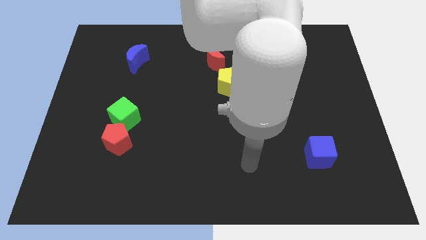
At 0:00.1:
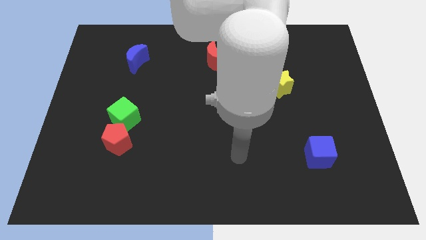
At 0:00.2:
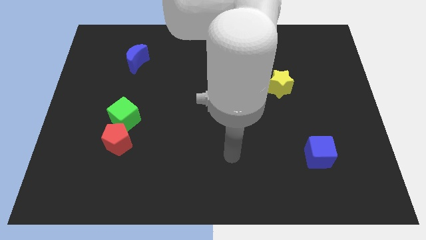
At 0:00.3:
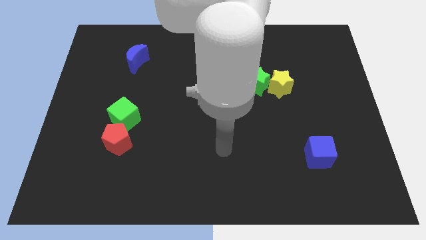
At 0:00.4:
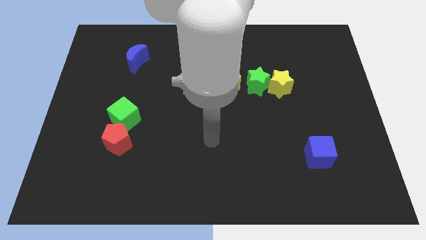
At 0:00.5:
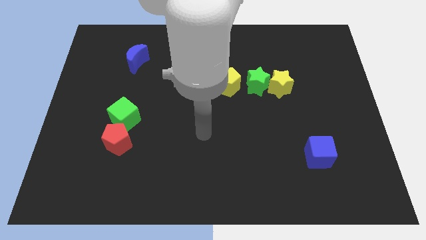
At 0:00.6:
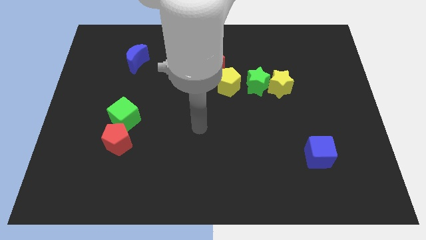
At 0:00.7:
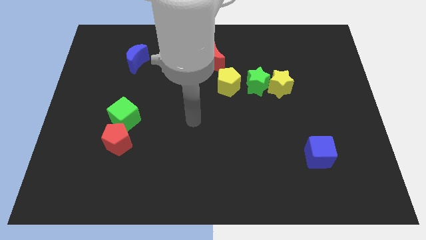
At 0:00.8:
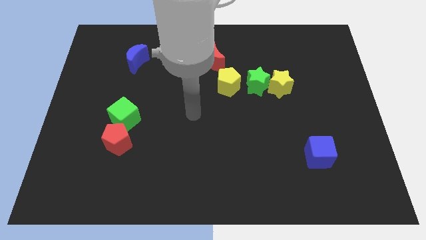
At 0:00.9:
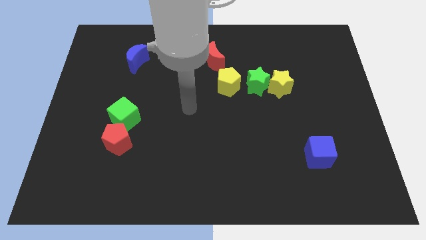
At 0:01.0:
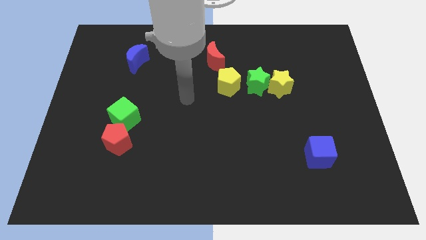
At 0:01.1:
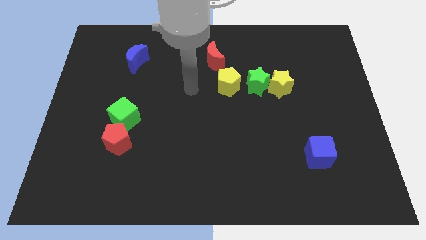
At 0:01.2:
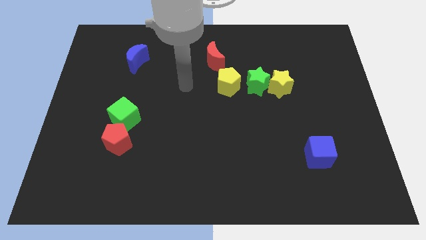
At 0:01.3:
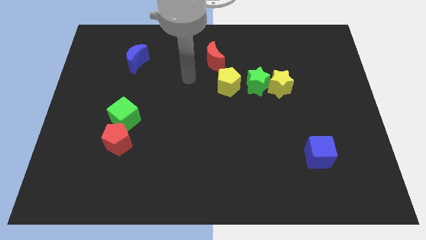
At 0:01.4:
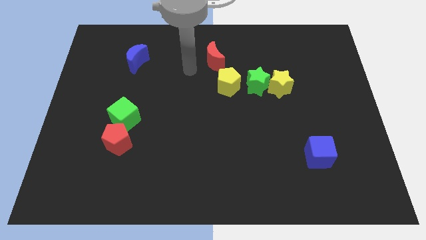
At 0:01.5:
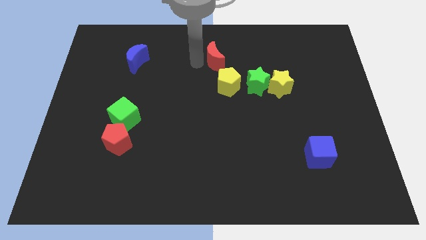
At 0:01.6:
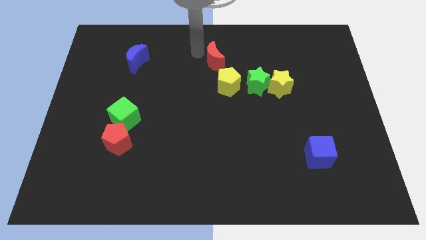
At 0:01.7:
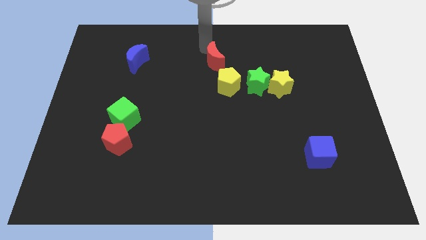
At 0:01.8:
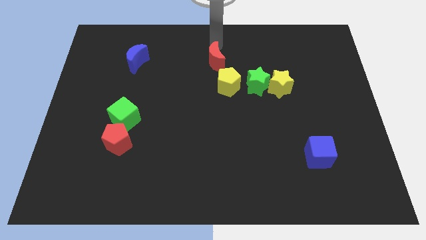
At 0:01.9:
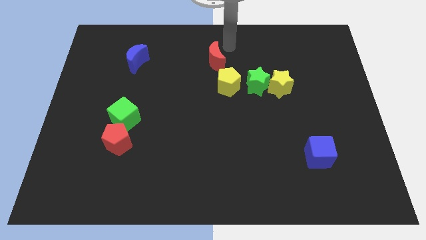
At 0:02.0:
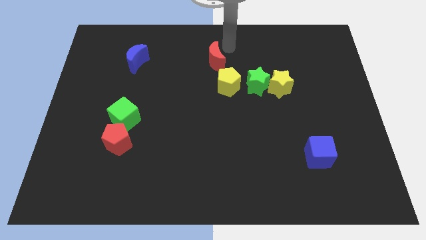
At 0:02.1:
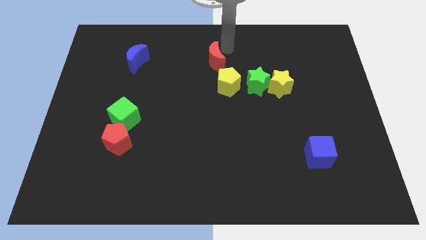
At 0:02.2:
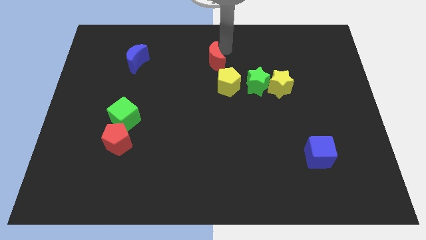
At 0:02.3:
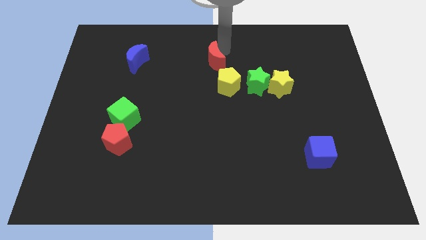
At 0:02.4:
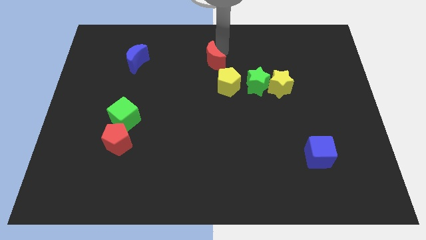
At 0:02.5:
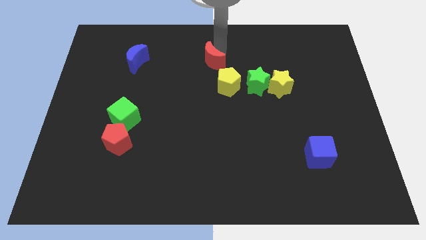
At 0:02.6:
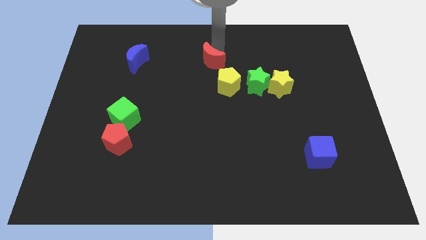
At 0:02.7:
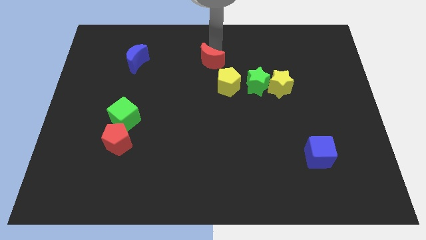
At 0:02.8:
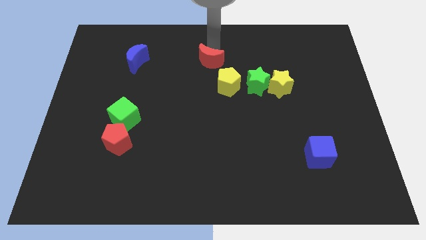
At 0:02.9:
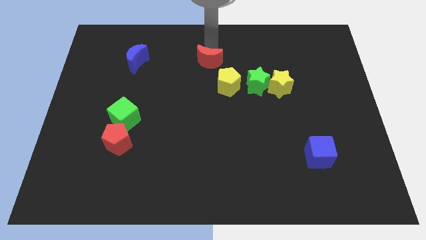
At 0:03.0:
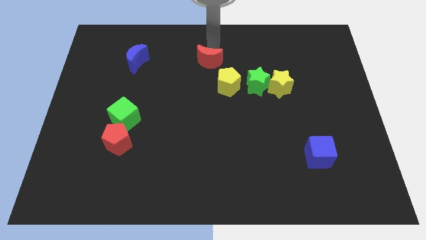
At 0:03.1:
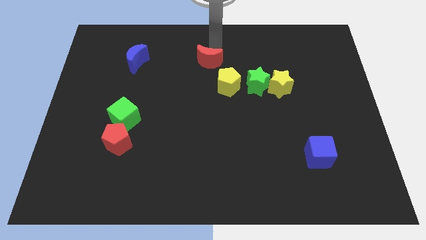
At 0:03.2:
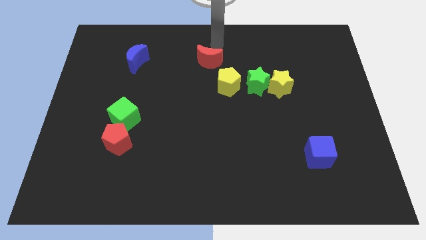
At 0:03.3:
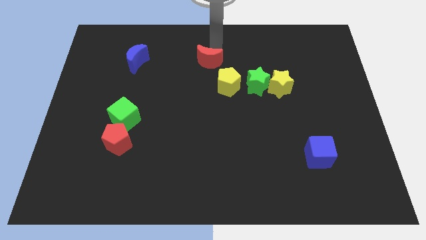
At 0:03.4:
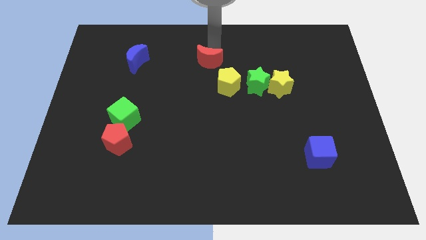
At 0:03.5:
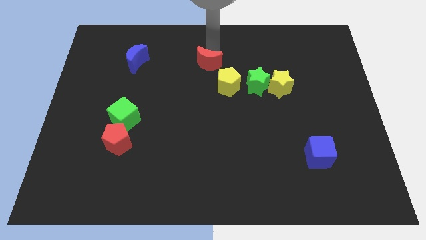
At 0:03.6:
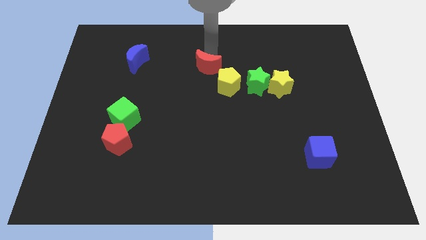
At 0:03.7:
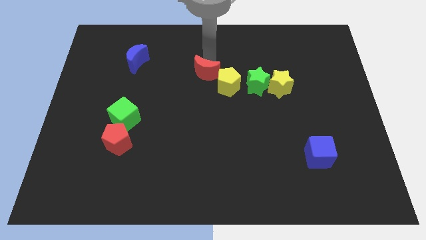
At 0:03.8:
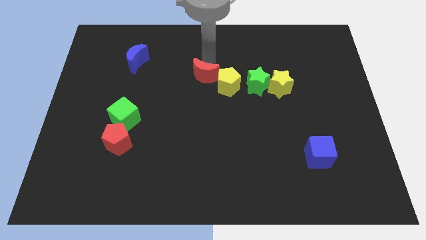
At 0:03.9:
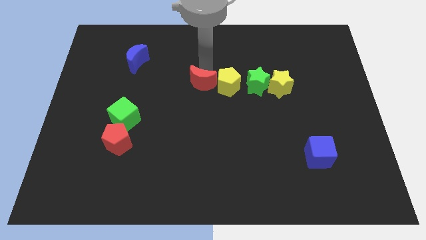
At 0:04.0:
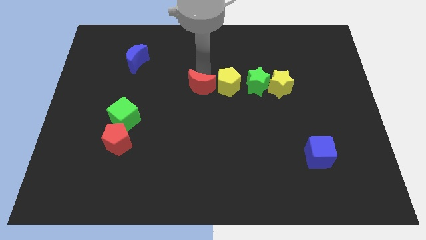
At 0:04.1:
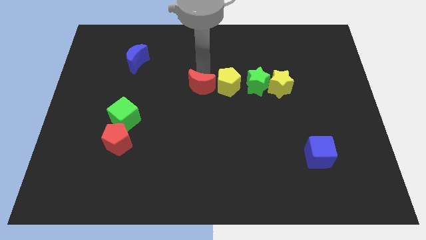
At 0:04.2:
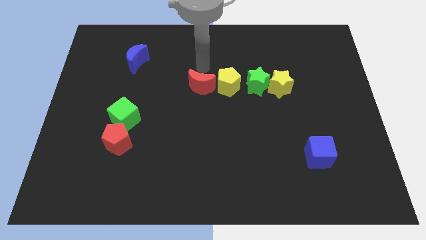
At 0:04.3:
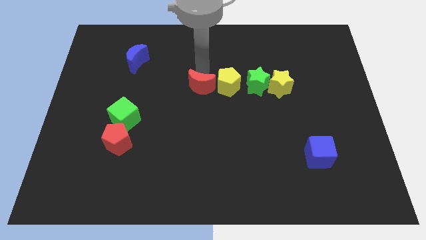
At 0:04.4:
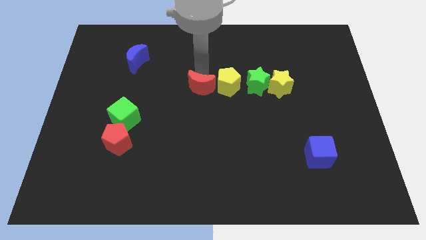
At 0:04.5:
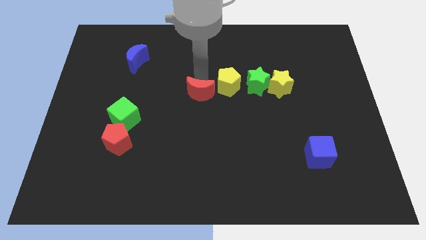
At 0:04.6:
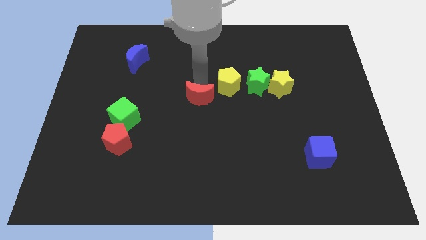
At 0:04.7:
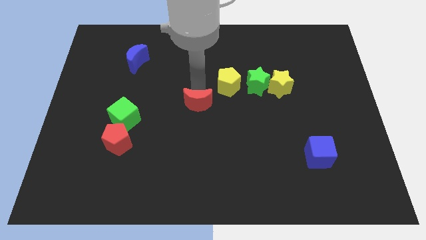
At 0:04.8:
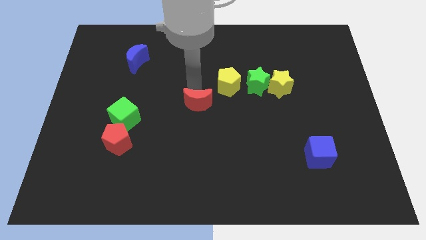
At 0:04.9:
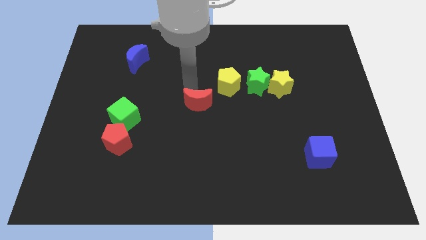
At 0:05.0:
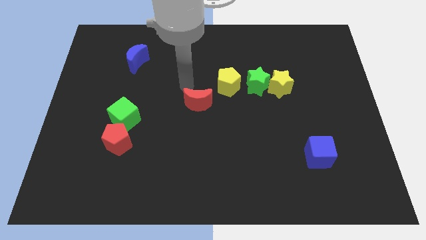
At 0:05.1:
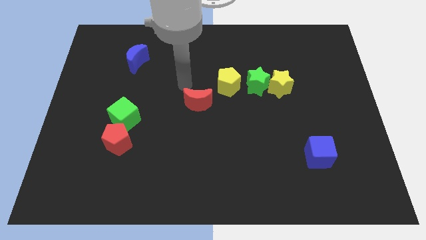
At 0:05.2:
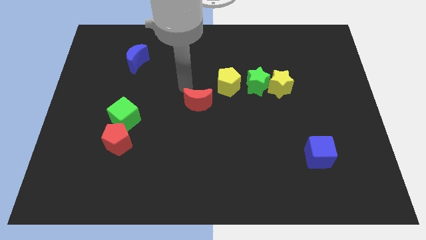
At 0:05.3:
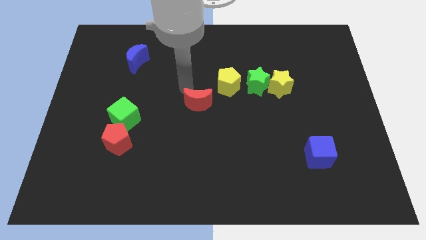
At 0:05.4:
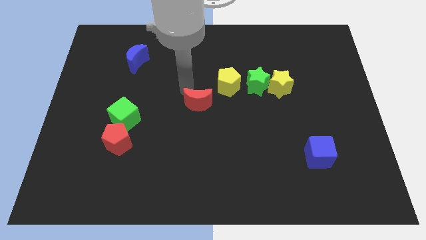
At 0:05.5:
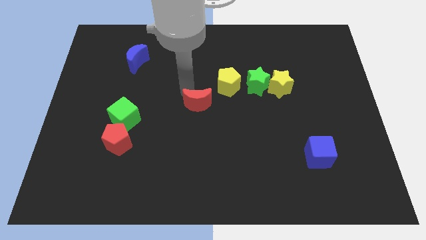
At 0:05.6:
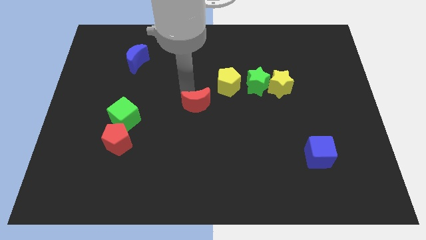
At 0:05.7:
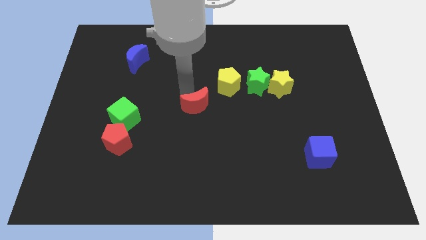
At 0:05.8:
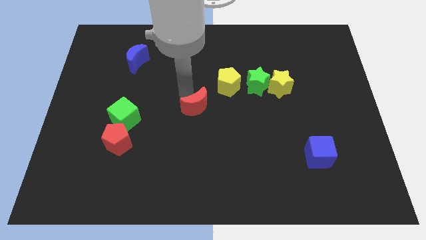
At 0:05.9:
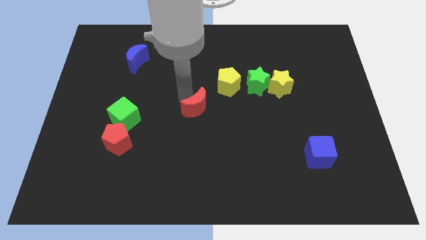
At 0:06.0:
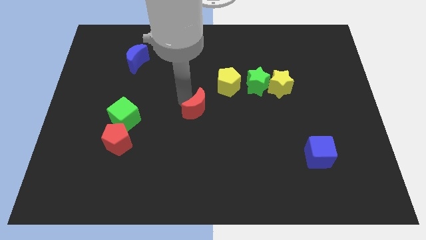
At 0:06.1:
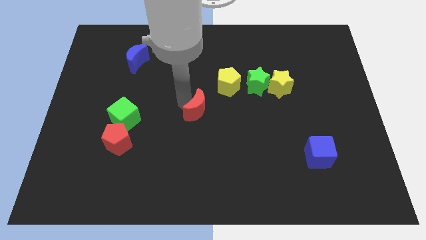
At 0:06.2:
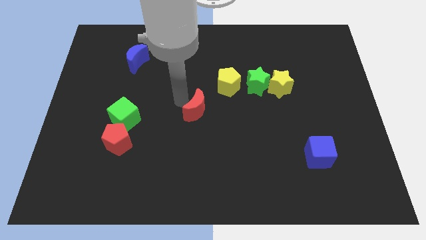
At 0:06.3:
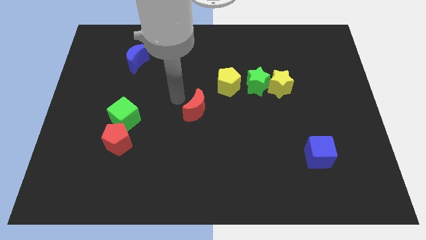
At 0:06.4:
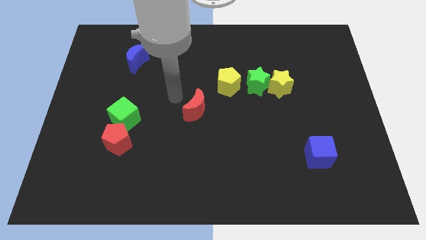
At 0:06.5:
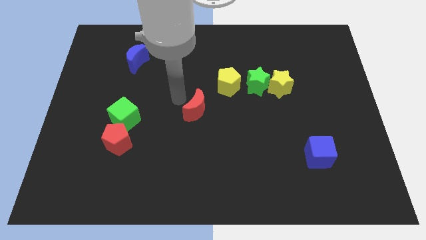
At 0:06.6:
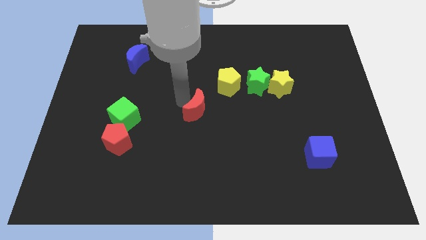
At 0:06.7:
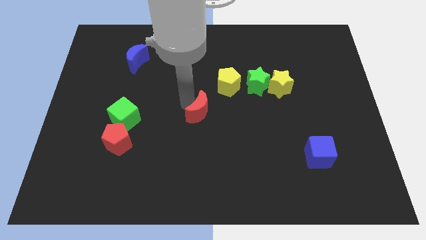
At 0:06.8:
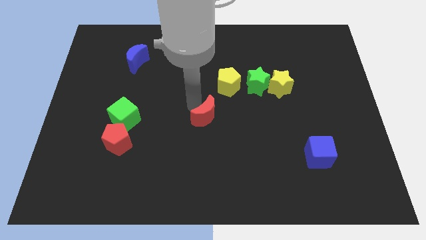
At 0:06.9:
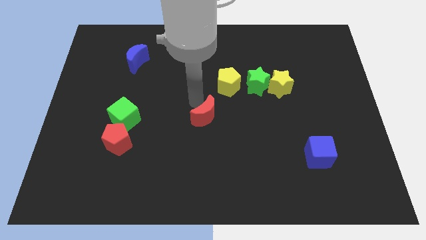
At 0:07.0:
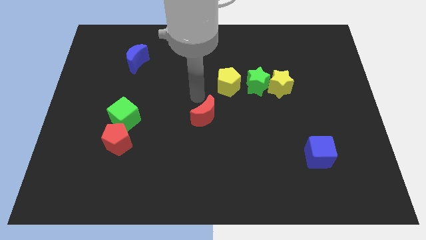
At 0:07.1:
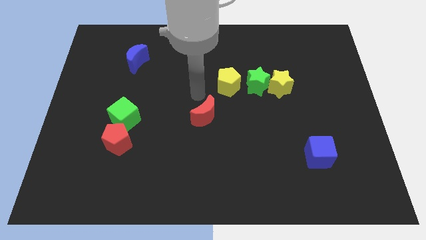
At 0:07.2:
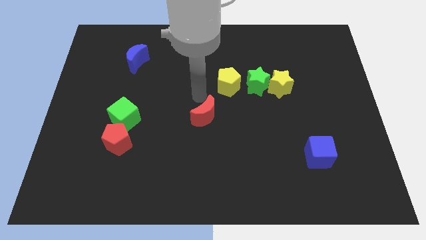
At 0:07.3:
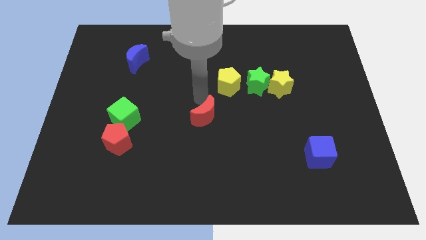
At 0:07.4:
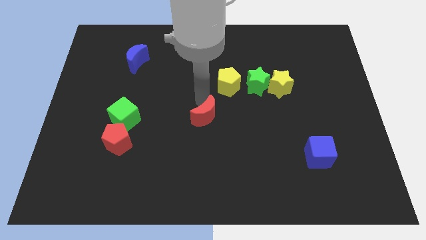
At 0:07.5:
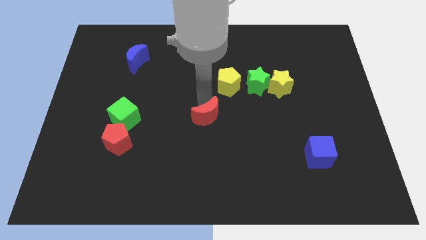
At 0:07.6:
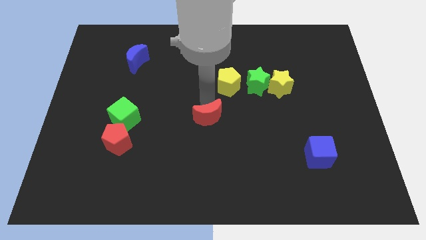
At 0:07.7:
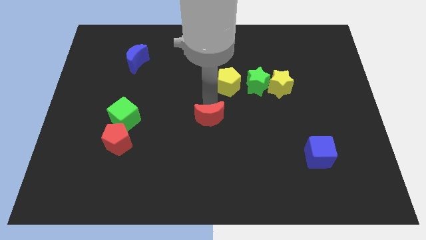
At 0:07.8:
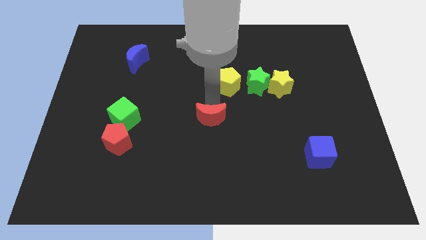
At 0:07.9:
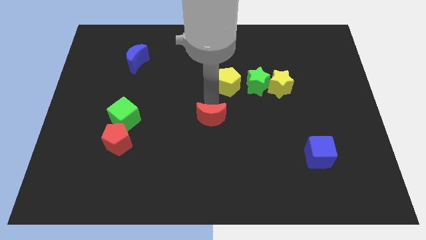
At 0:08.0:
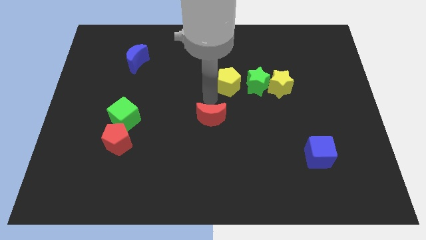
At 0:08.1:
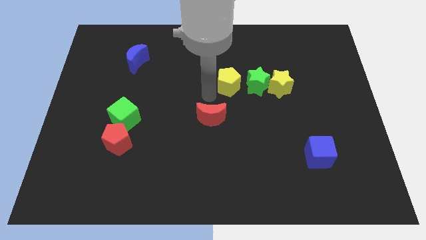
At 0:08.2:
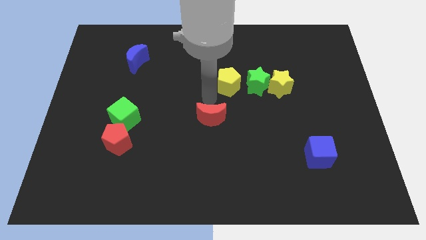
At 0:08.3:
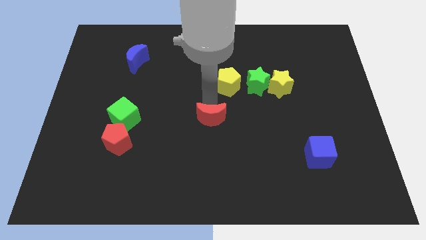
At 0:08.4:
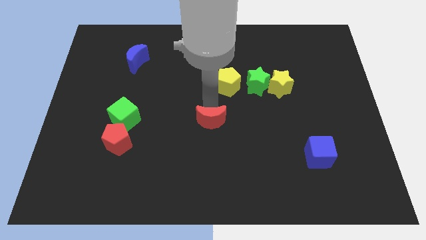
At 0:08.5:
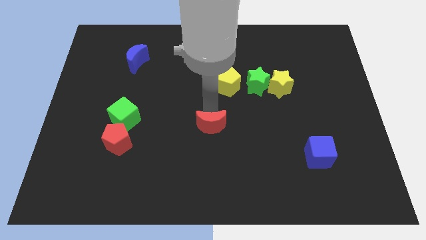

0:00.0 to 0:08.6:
move the red moon down
